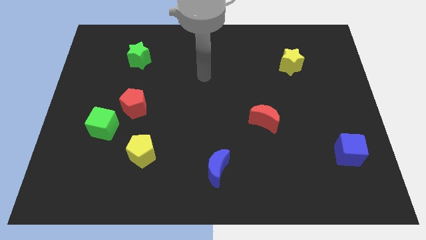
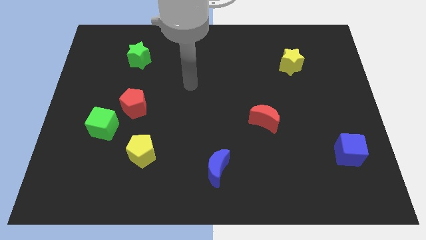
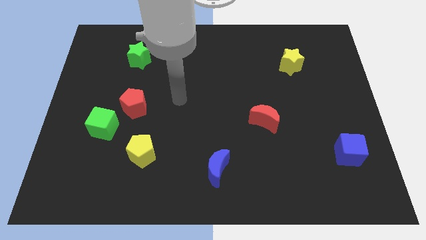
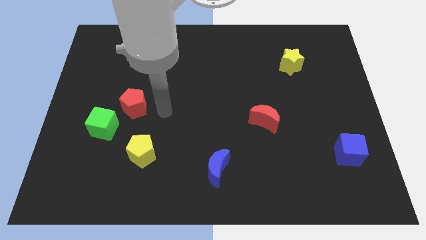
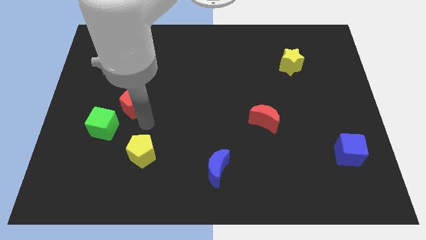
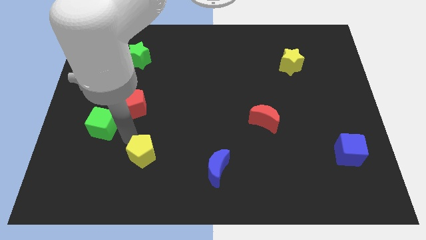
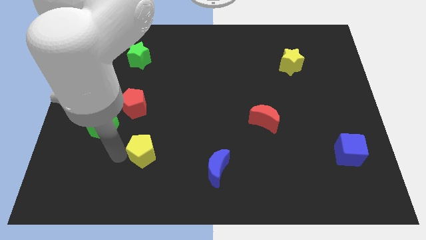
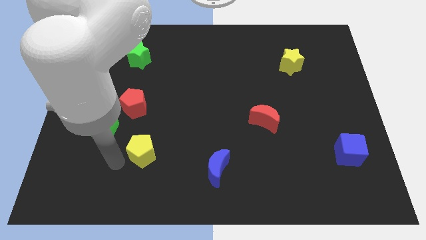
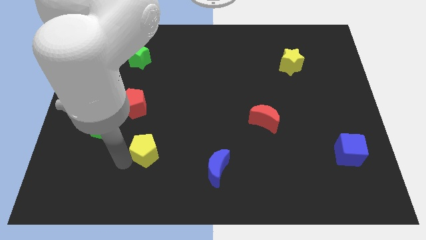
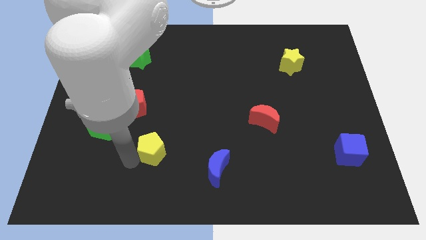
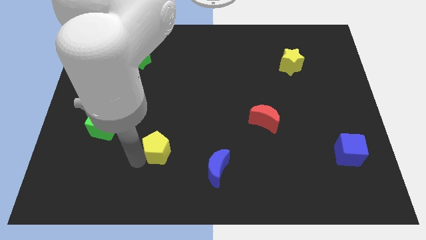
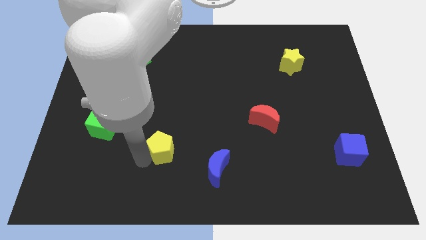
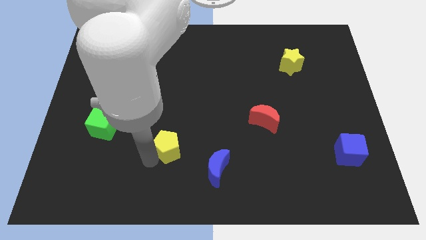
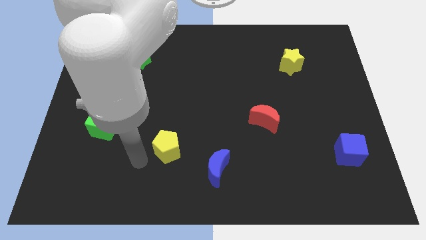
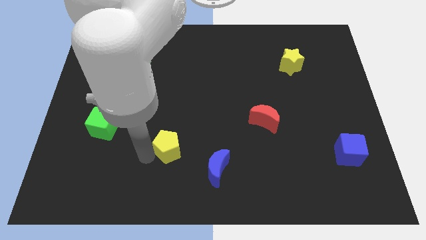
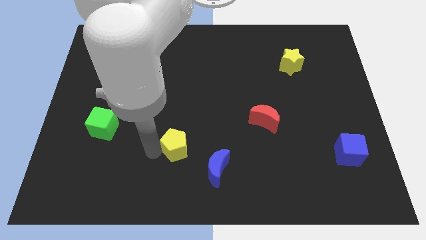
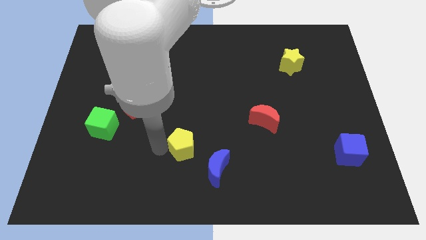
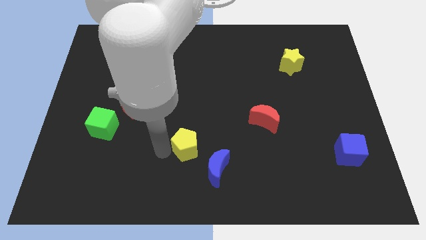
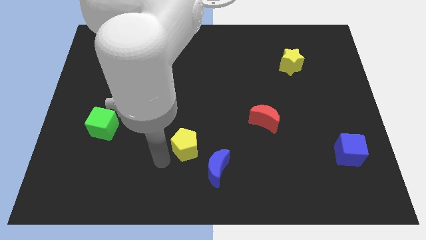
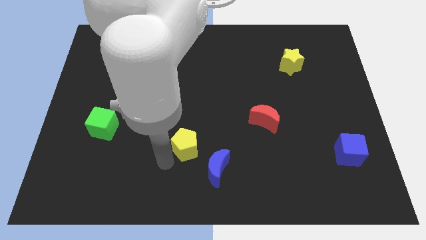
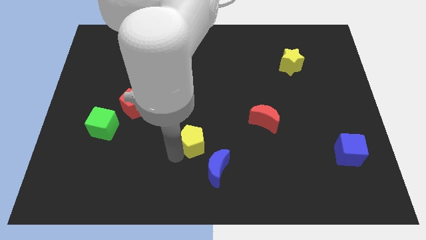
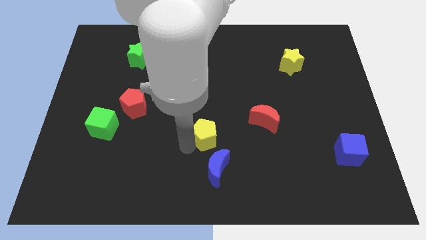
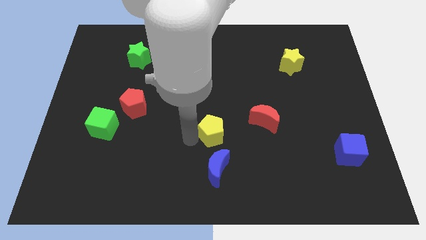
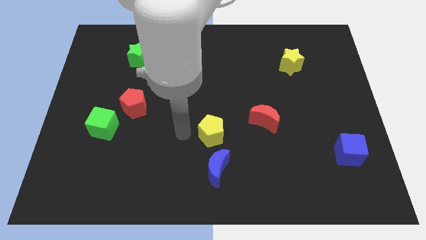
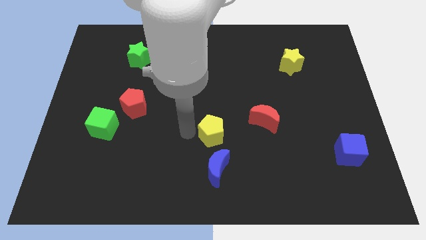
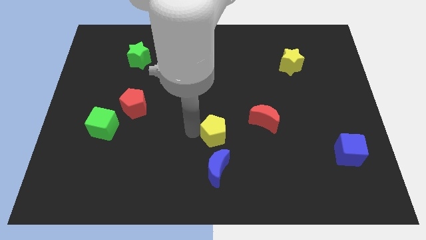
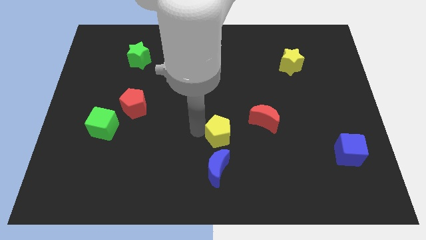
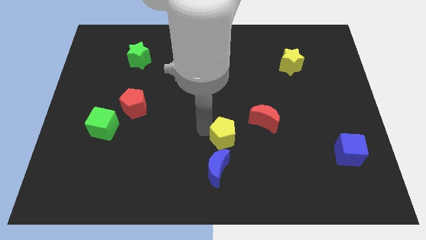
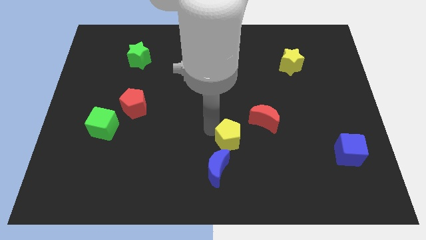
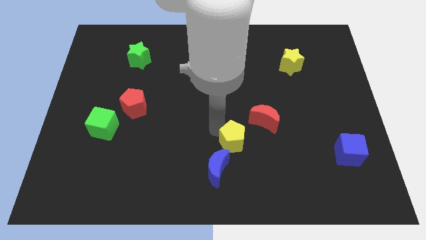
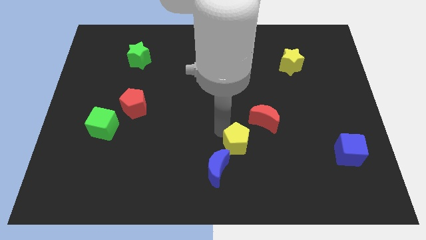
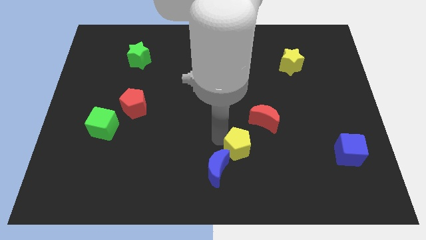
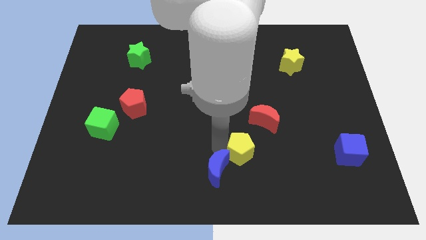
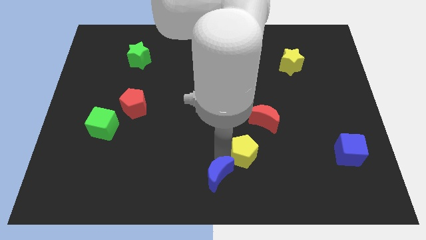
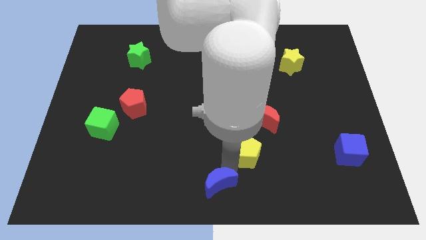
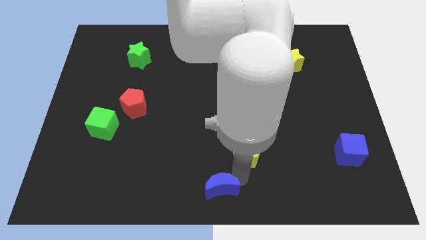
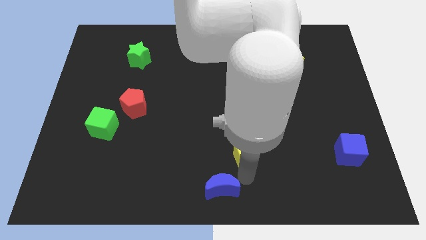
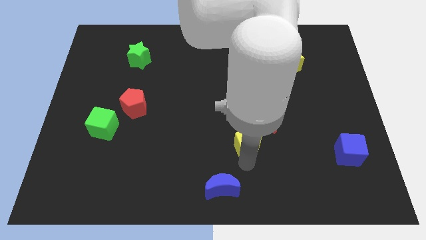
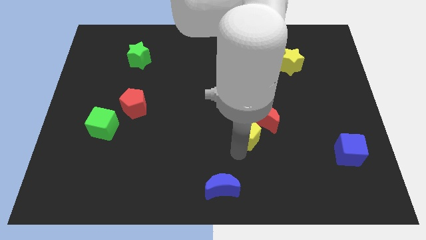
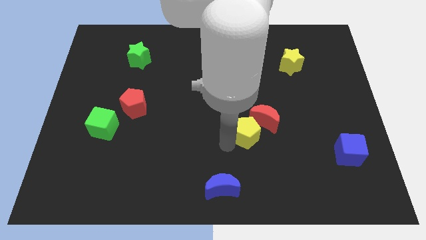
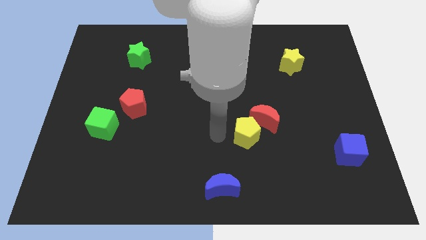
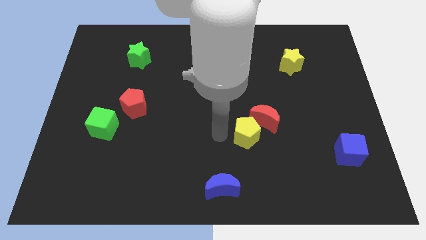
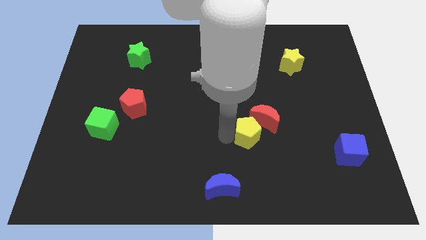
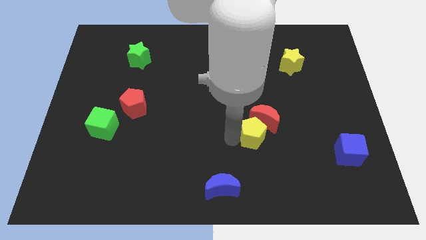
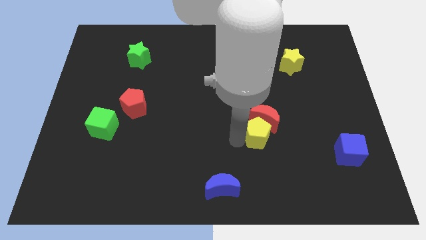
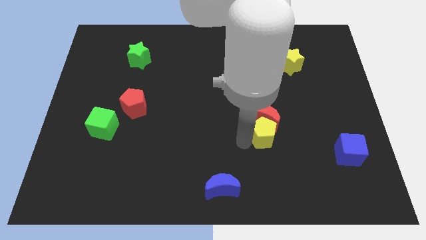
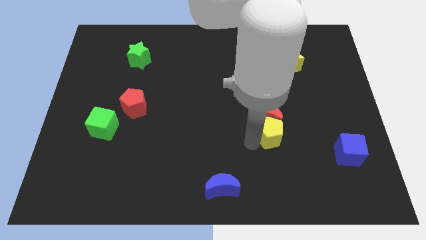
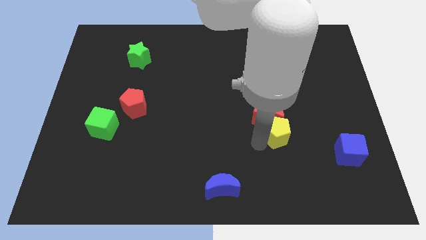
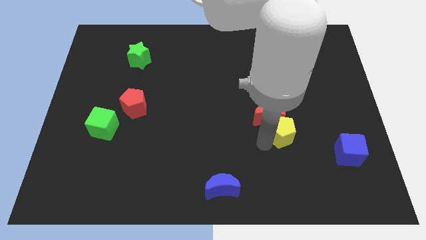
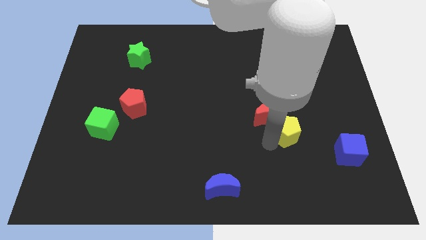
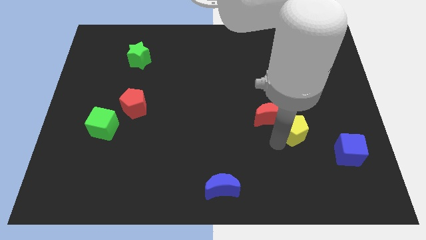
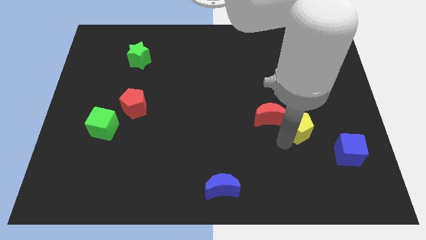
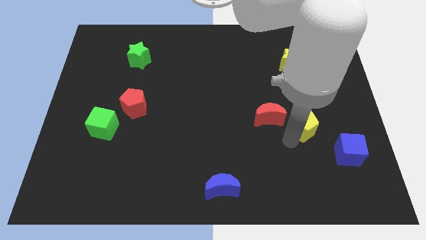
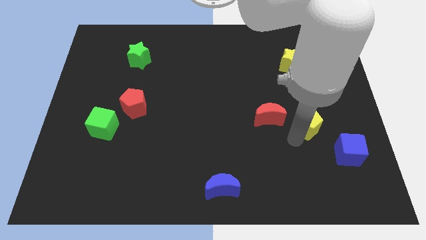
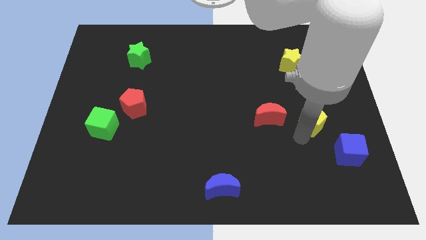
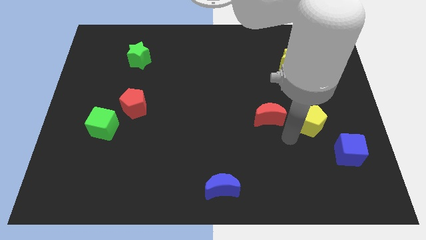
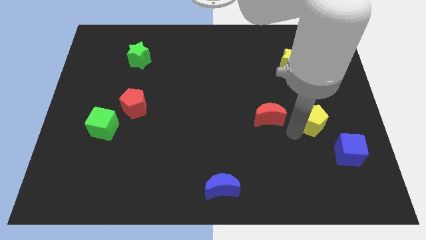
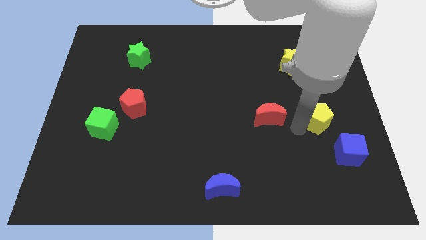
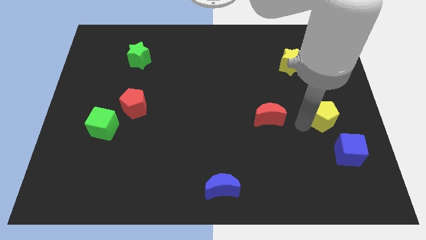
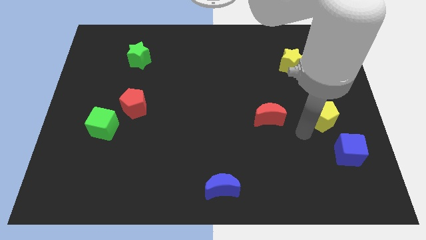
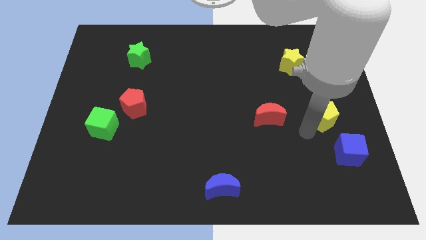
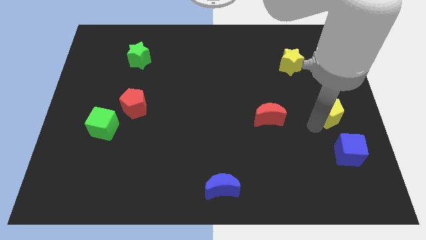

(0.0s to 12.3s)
move the yellow pentagon to the center right
